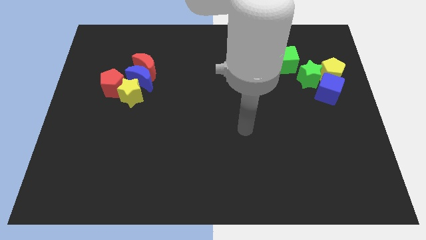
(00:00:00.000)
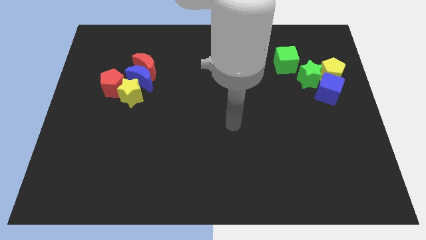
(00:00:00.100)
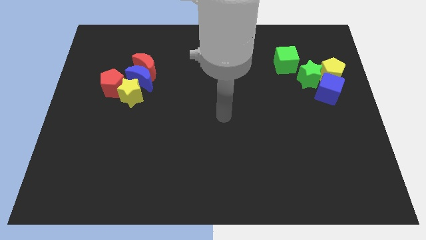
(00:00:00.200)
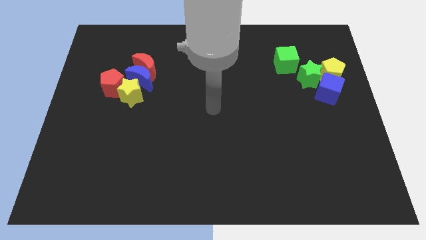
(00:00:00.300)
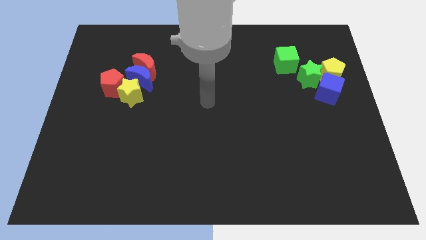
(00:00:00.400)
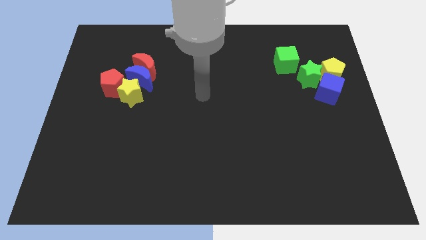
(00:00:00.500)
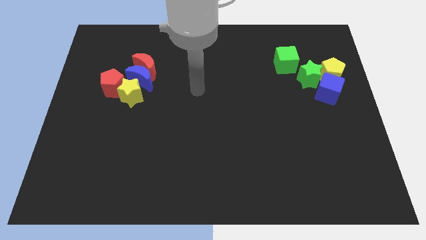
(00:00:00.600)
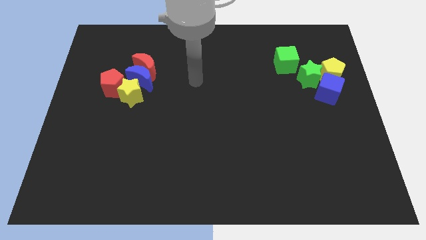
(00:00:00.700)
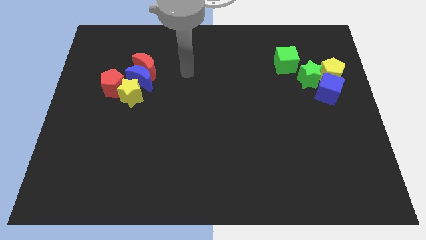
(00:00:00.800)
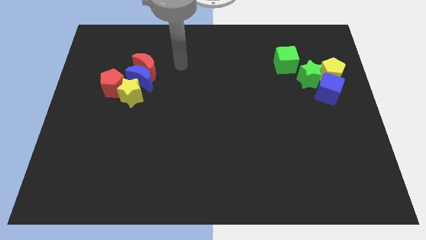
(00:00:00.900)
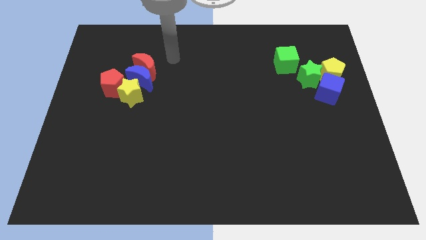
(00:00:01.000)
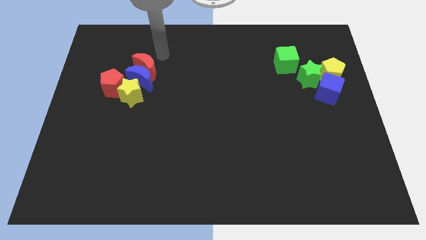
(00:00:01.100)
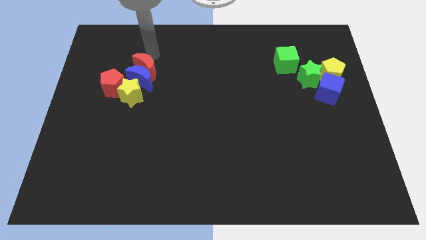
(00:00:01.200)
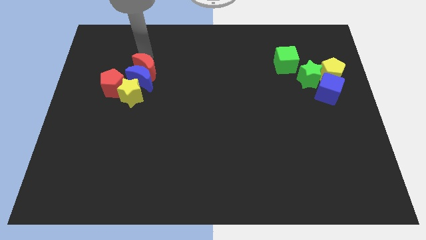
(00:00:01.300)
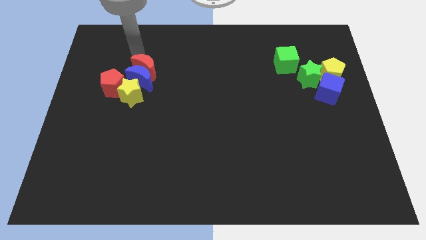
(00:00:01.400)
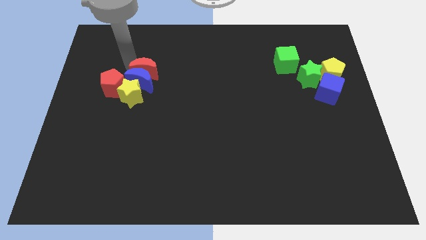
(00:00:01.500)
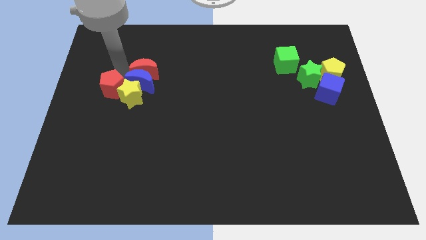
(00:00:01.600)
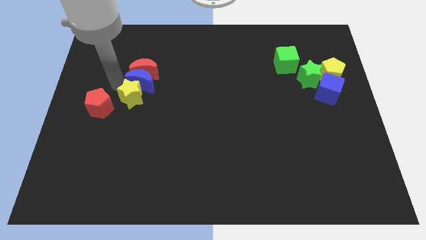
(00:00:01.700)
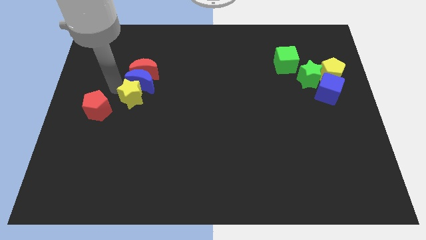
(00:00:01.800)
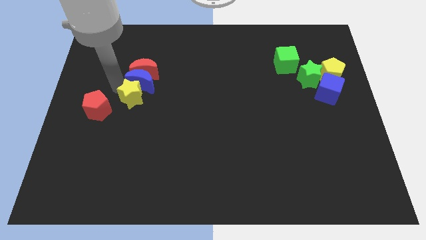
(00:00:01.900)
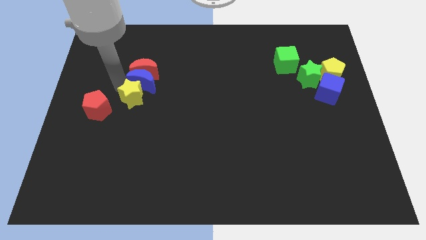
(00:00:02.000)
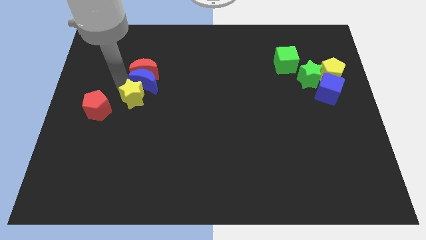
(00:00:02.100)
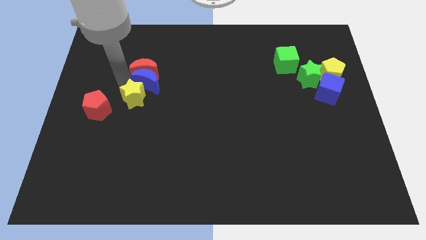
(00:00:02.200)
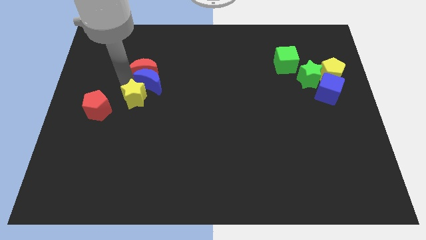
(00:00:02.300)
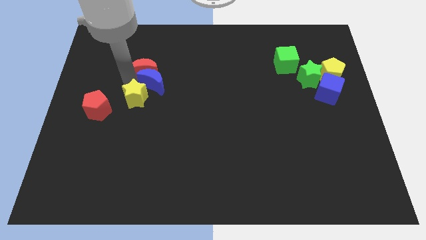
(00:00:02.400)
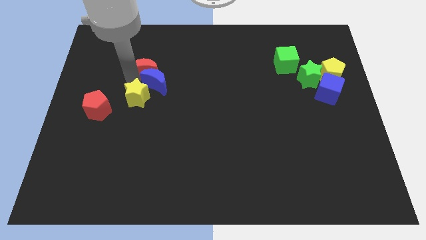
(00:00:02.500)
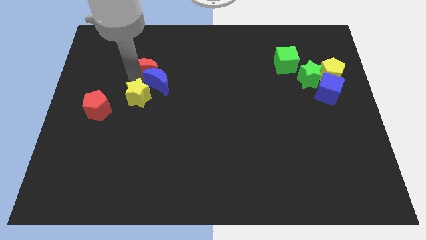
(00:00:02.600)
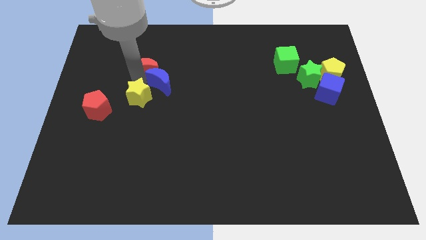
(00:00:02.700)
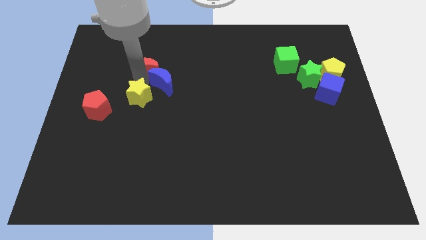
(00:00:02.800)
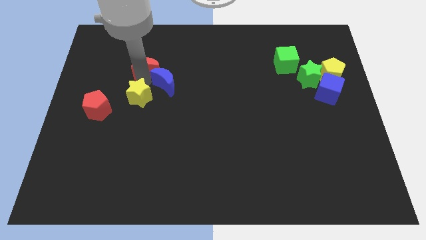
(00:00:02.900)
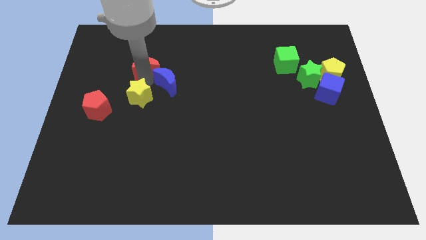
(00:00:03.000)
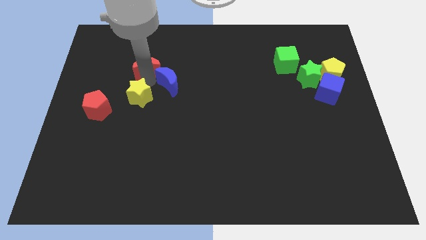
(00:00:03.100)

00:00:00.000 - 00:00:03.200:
separate the blue moon from the red moon, yellow star, and red pentagon

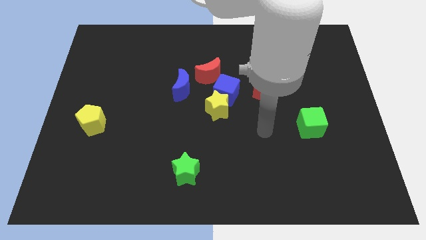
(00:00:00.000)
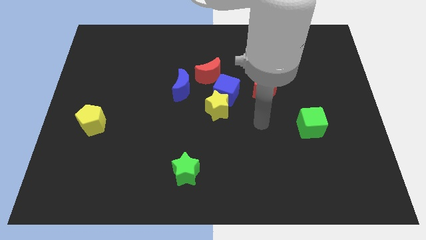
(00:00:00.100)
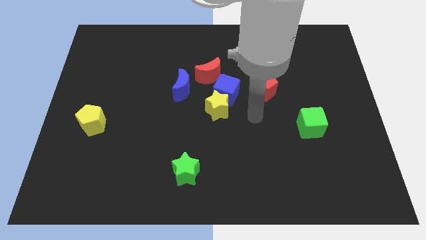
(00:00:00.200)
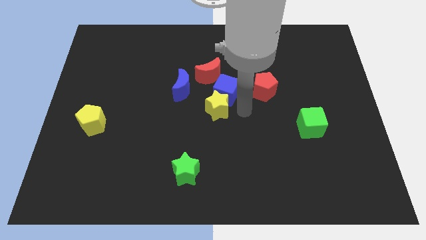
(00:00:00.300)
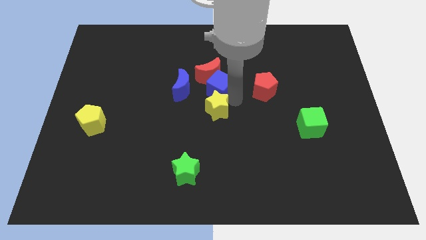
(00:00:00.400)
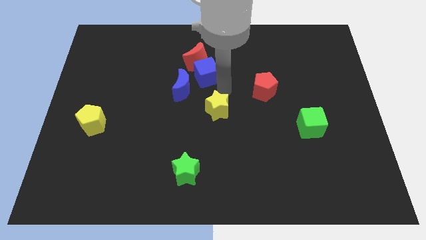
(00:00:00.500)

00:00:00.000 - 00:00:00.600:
separate the yellow star from the blue cube

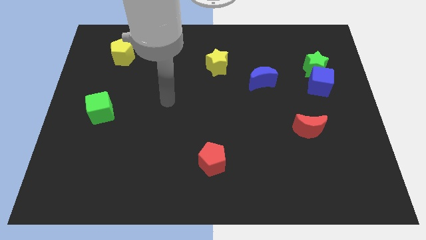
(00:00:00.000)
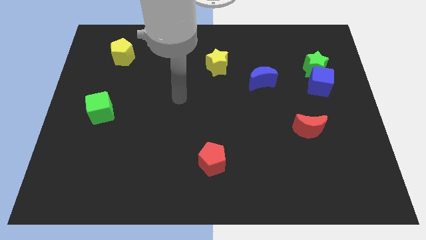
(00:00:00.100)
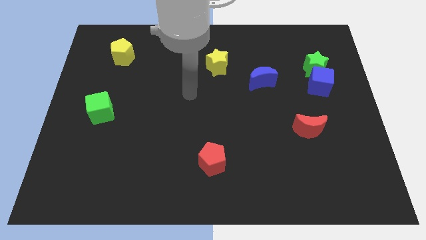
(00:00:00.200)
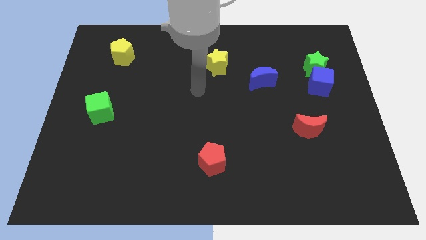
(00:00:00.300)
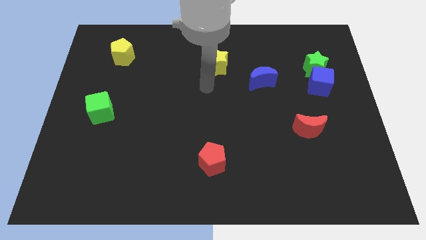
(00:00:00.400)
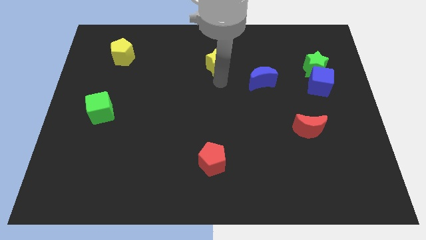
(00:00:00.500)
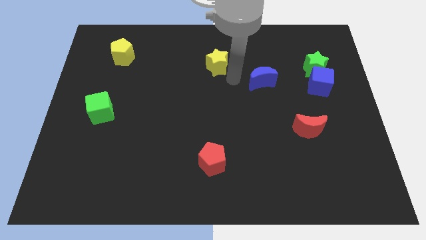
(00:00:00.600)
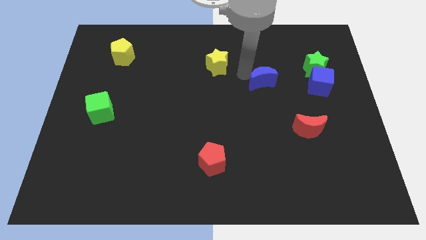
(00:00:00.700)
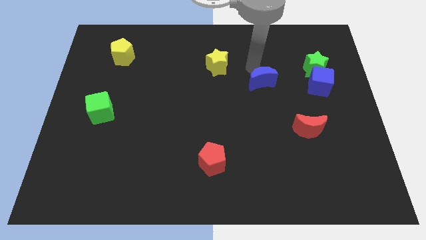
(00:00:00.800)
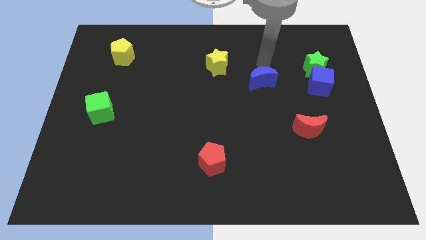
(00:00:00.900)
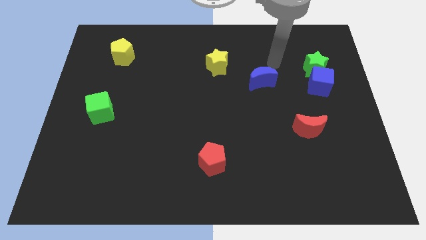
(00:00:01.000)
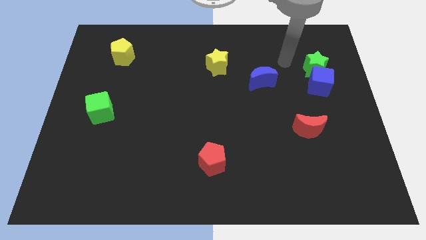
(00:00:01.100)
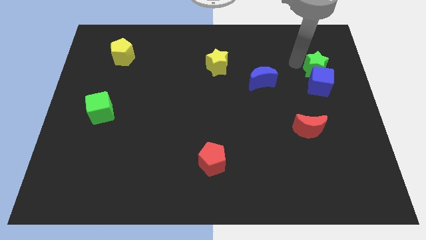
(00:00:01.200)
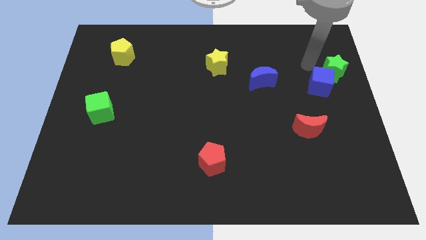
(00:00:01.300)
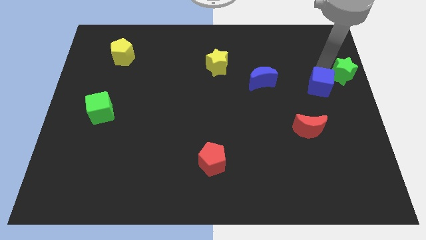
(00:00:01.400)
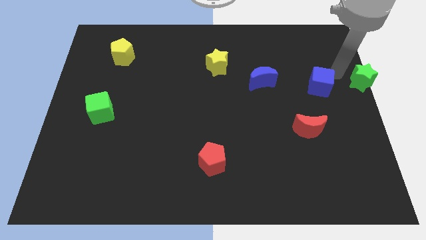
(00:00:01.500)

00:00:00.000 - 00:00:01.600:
separate the blue cube from the green star

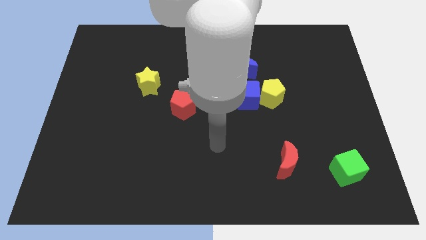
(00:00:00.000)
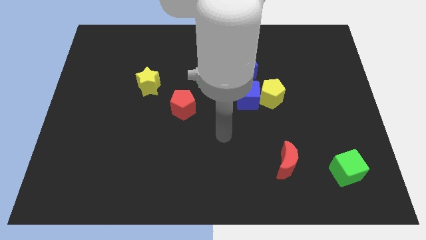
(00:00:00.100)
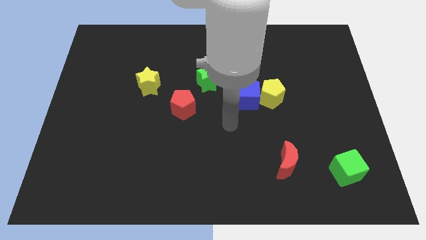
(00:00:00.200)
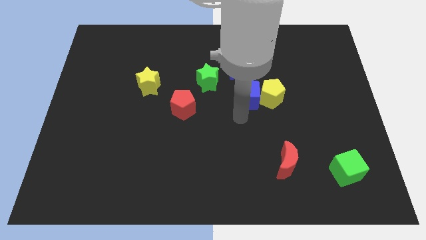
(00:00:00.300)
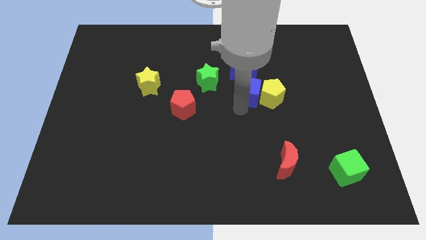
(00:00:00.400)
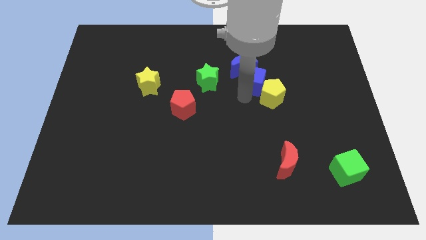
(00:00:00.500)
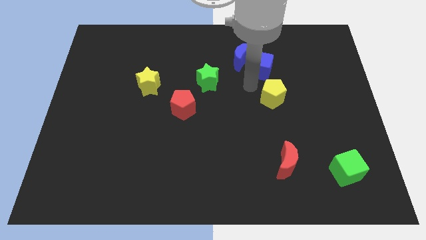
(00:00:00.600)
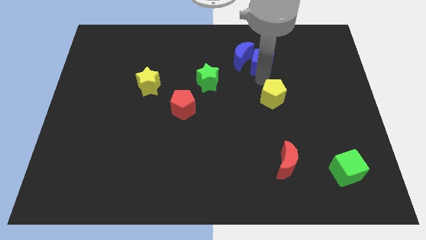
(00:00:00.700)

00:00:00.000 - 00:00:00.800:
separate the yellow pentagon from the blue cube

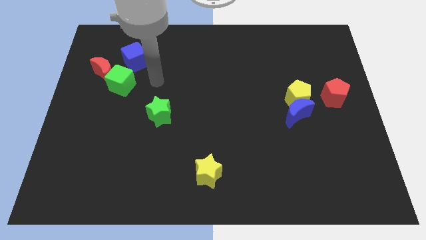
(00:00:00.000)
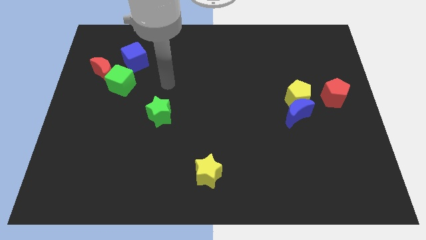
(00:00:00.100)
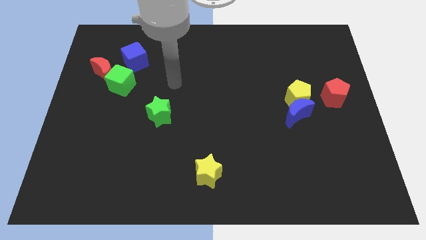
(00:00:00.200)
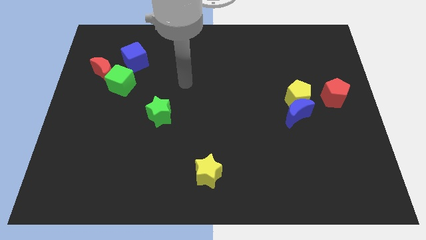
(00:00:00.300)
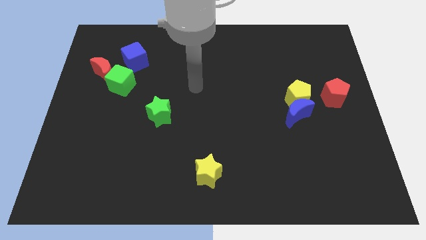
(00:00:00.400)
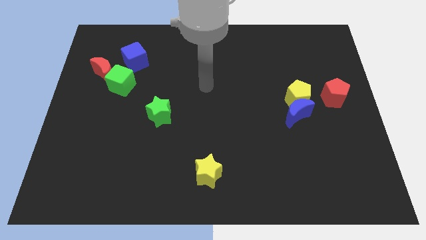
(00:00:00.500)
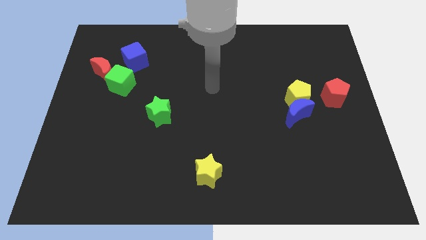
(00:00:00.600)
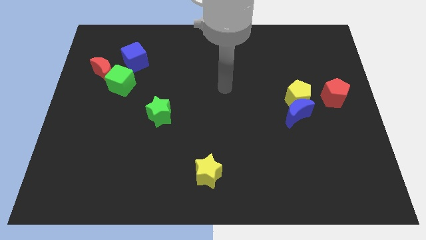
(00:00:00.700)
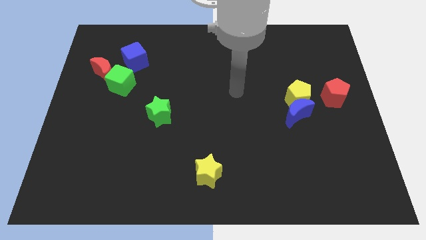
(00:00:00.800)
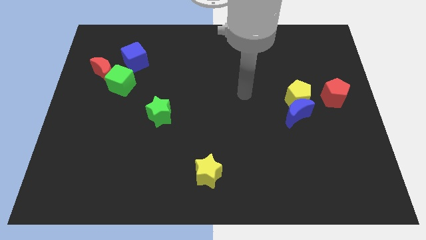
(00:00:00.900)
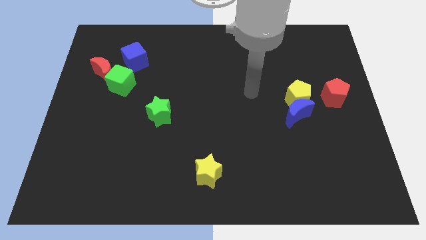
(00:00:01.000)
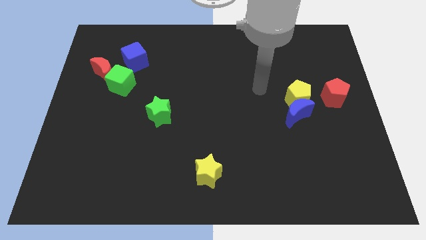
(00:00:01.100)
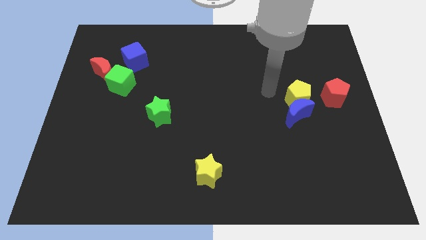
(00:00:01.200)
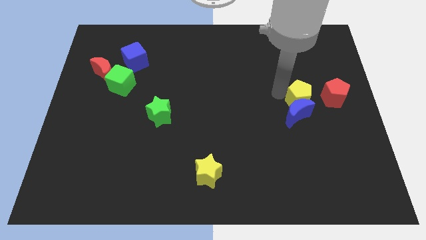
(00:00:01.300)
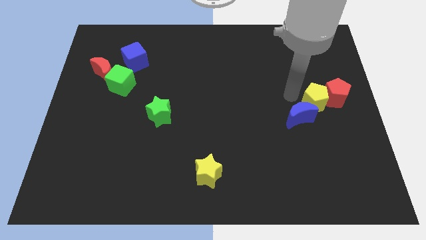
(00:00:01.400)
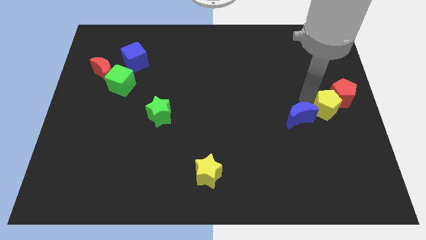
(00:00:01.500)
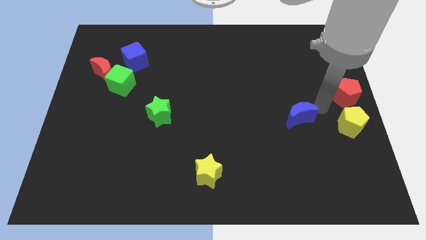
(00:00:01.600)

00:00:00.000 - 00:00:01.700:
separate the blue moon from the yellow pentagon

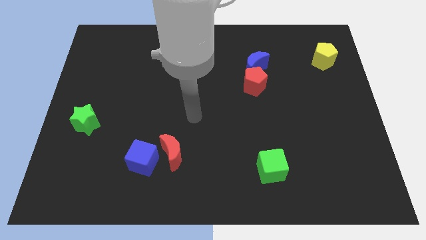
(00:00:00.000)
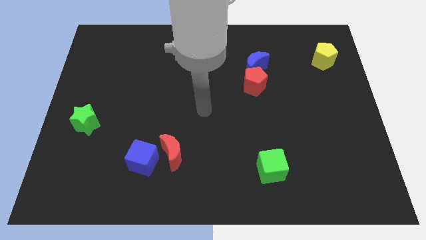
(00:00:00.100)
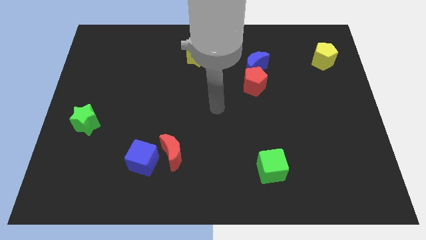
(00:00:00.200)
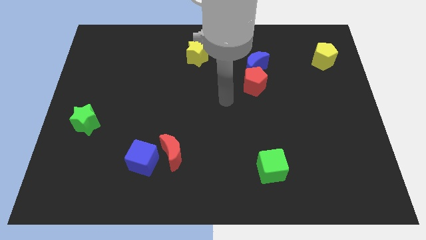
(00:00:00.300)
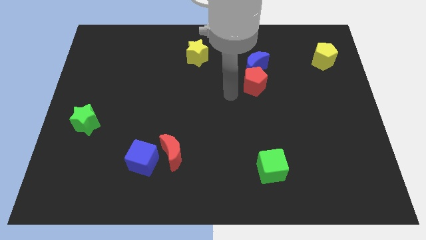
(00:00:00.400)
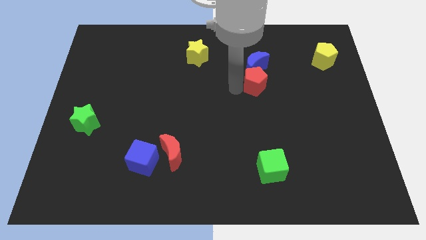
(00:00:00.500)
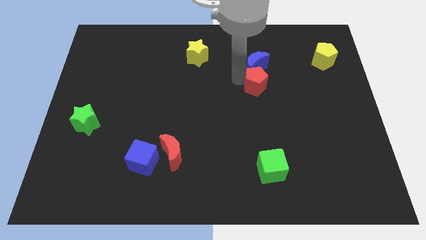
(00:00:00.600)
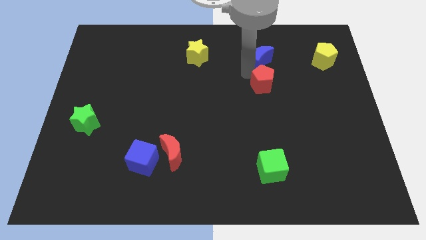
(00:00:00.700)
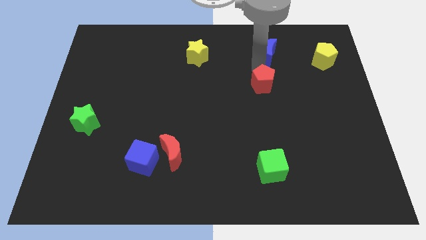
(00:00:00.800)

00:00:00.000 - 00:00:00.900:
move the red pentagon away from the blue moon

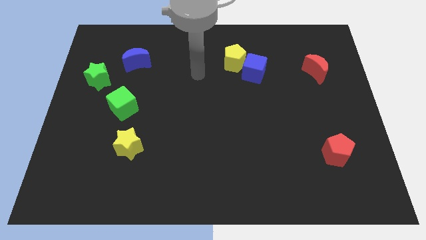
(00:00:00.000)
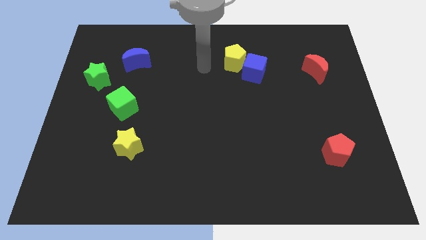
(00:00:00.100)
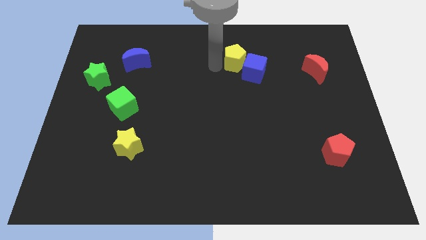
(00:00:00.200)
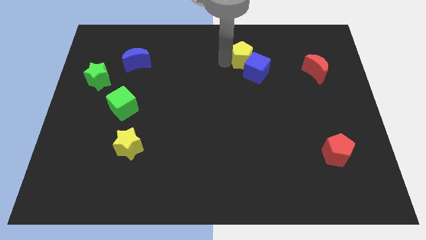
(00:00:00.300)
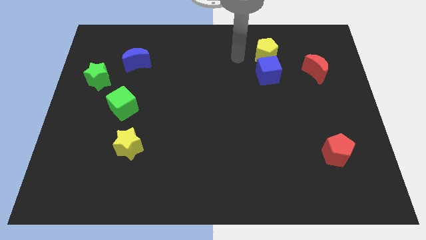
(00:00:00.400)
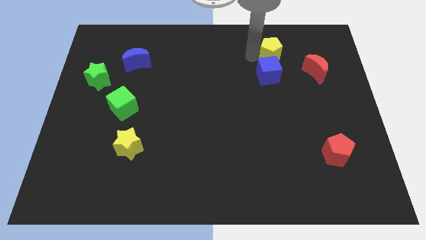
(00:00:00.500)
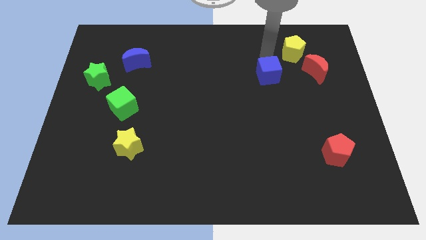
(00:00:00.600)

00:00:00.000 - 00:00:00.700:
pull the blue cube apart from the yellow pentagon
